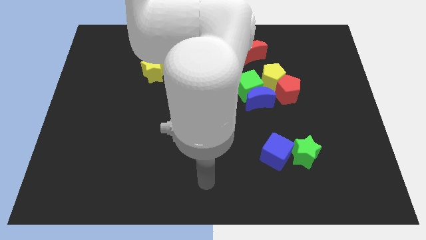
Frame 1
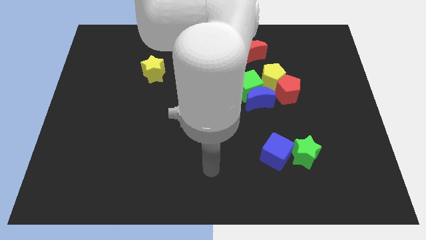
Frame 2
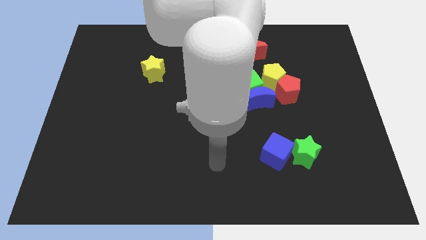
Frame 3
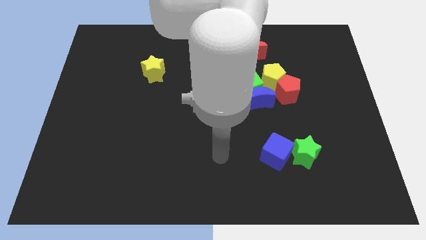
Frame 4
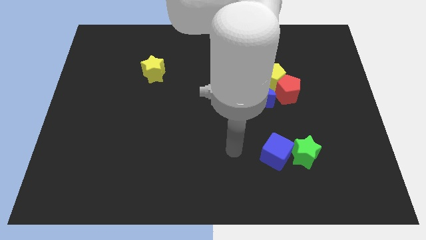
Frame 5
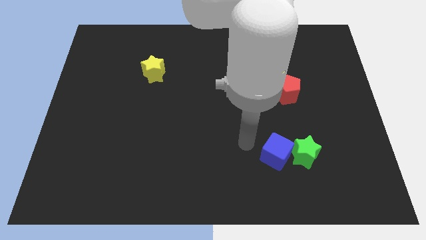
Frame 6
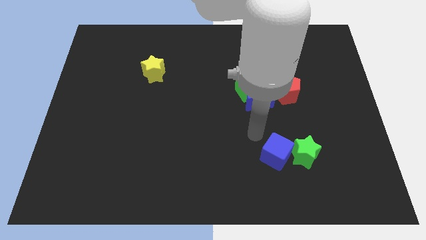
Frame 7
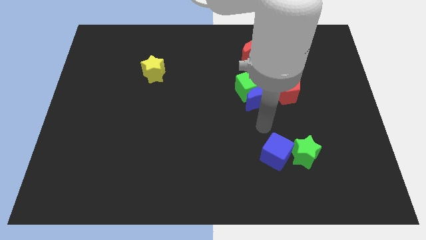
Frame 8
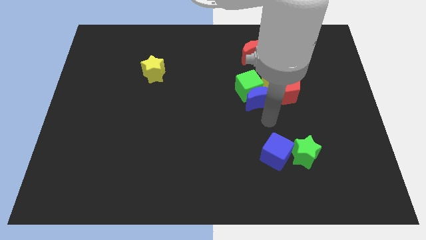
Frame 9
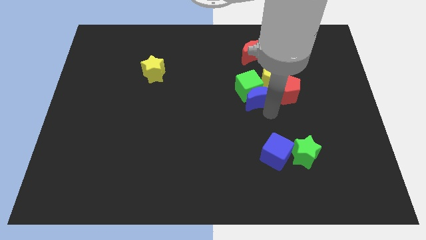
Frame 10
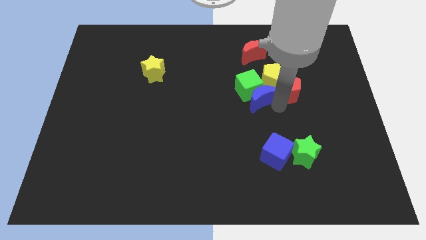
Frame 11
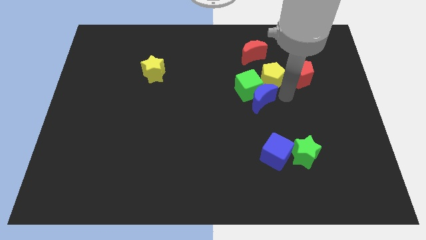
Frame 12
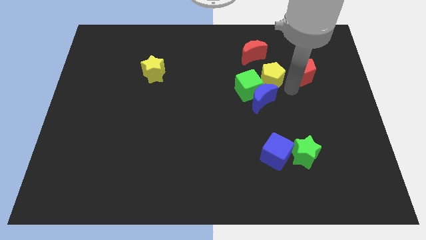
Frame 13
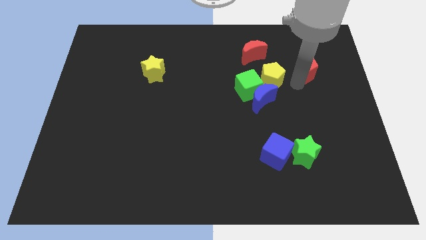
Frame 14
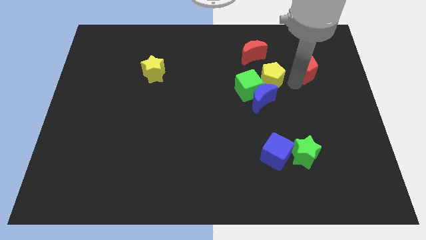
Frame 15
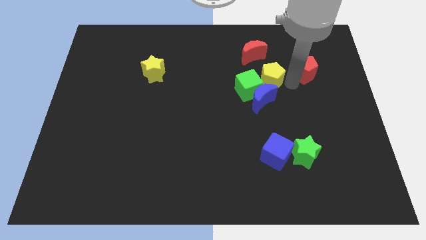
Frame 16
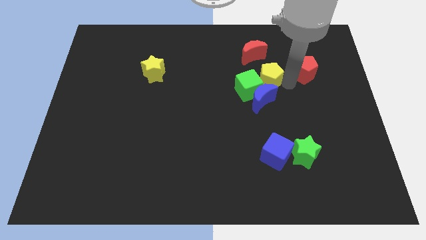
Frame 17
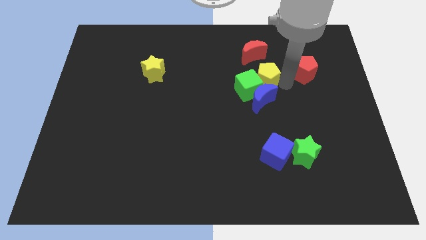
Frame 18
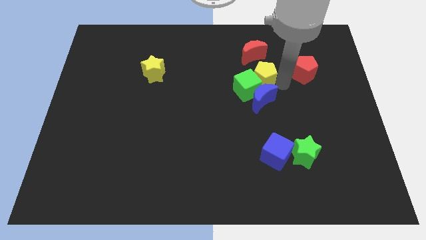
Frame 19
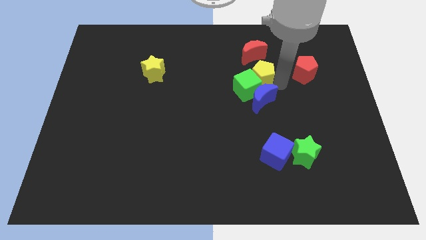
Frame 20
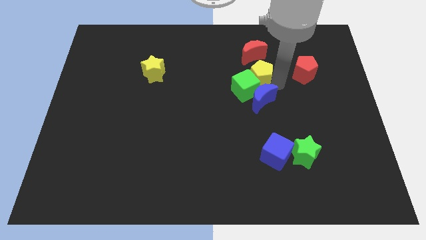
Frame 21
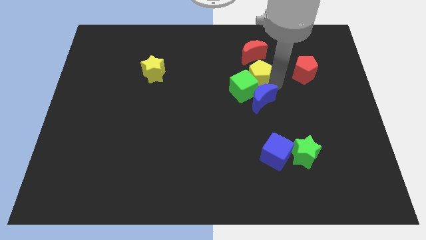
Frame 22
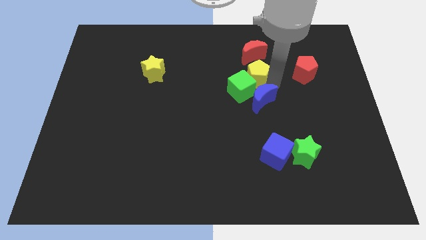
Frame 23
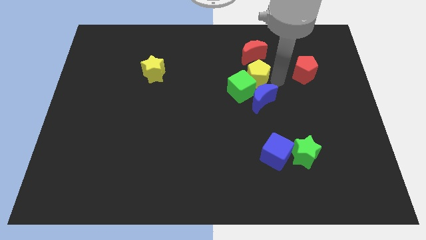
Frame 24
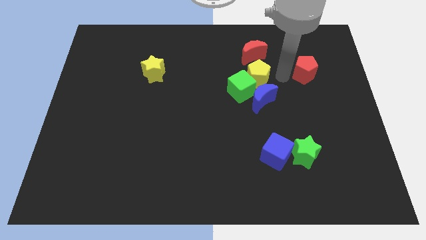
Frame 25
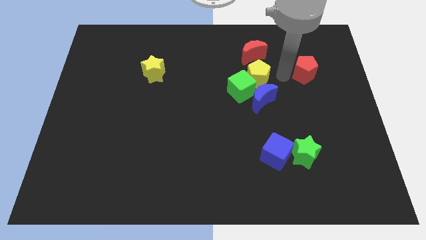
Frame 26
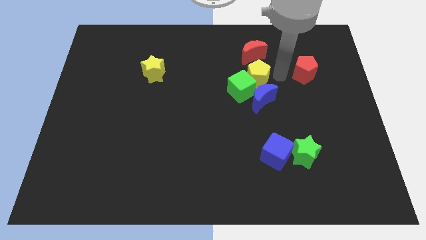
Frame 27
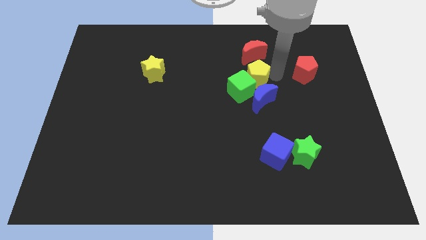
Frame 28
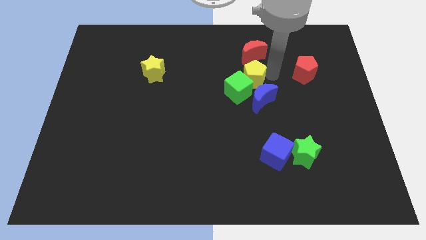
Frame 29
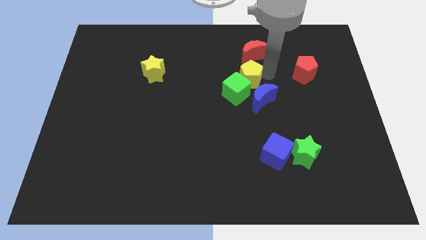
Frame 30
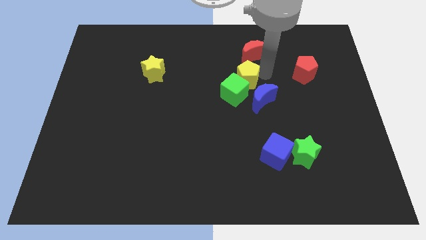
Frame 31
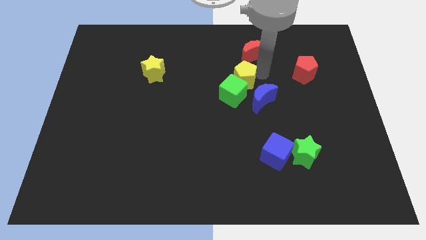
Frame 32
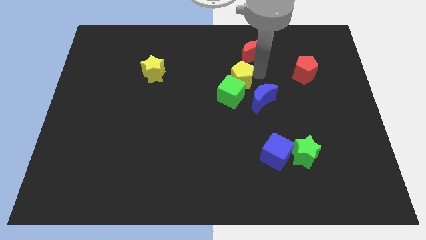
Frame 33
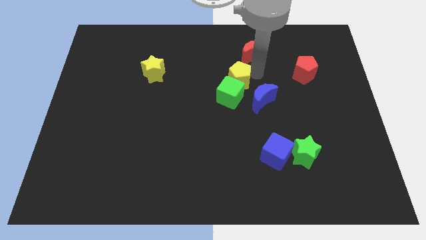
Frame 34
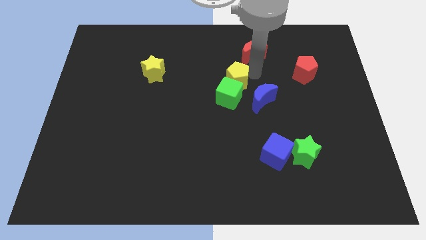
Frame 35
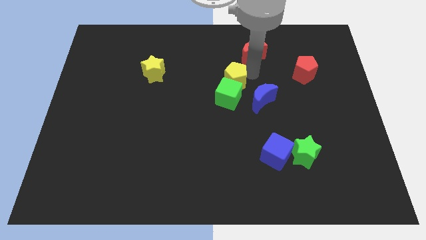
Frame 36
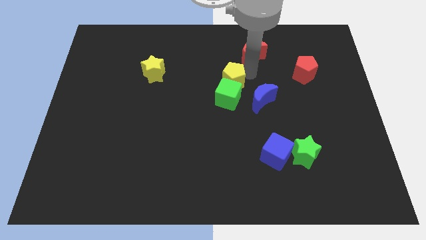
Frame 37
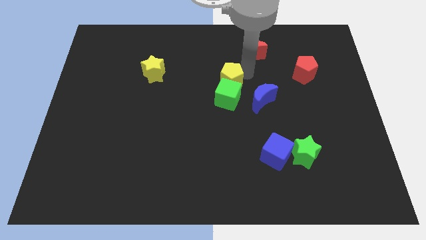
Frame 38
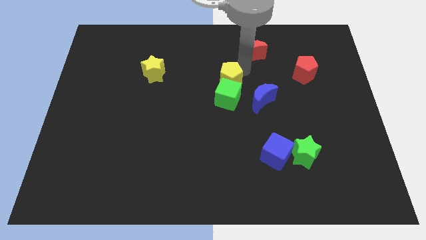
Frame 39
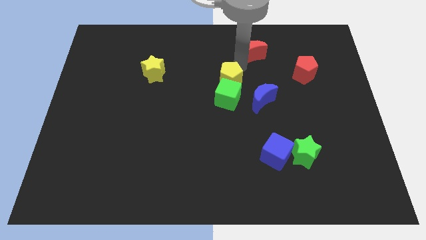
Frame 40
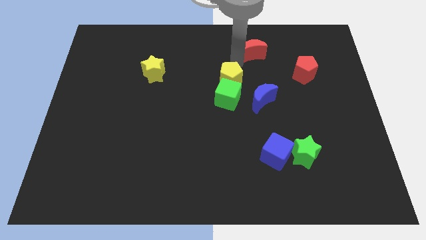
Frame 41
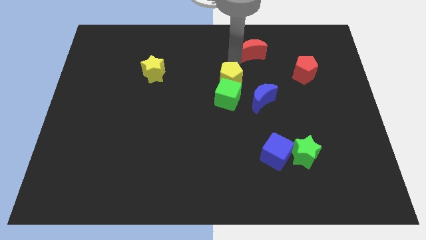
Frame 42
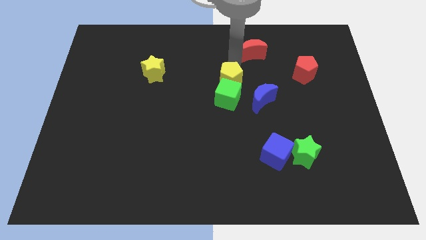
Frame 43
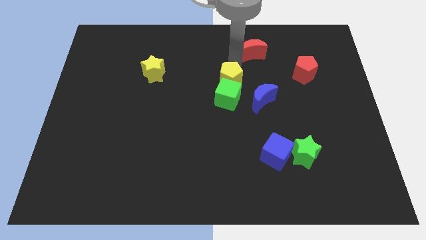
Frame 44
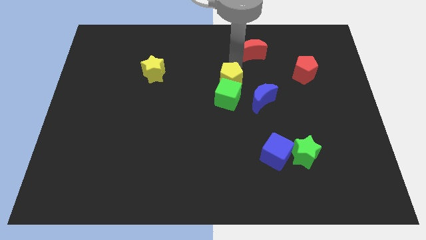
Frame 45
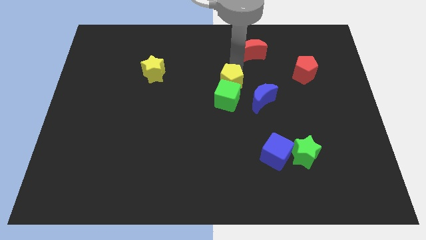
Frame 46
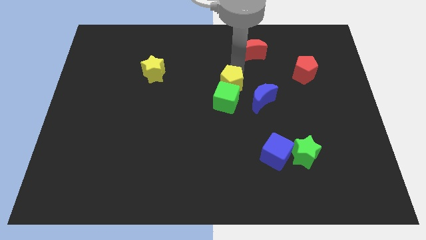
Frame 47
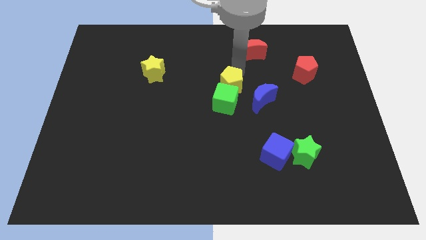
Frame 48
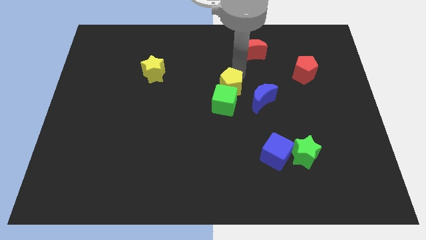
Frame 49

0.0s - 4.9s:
slide the yellow pentagon diagonally down and left a bit

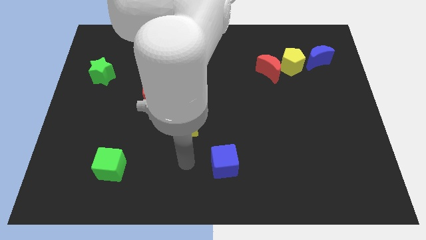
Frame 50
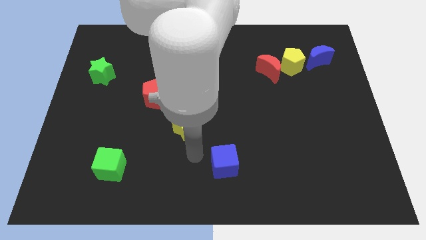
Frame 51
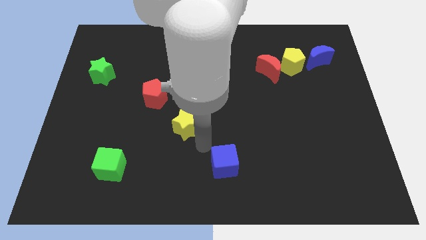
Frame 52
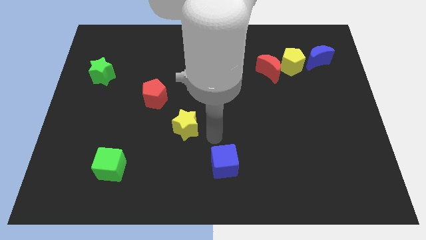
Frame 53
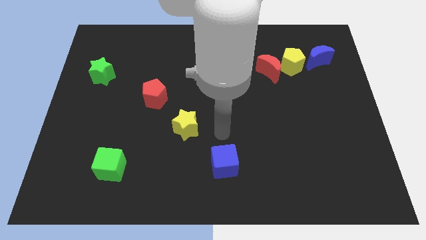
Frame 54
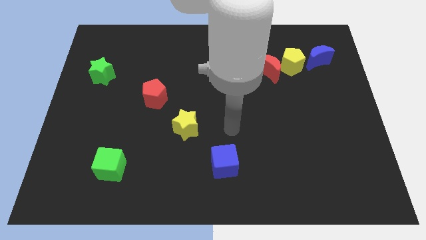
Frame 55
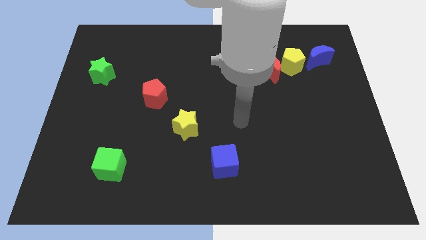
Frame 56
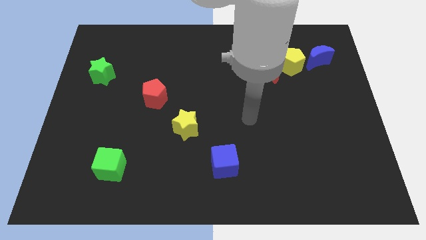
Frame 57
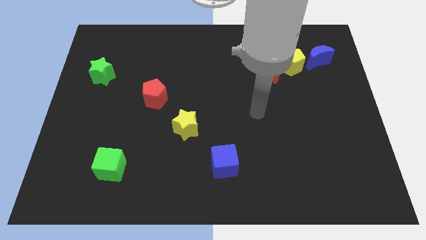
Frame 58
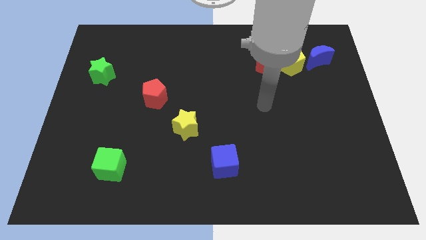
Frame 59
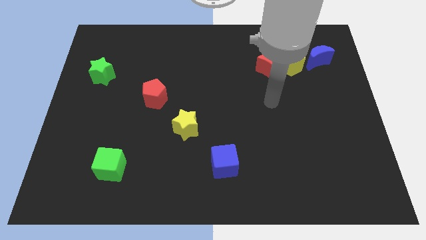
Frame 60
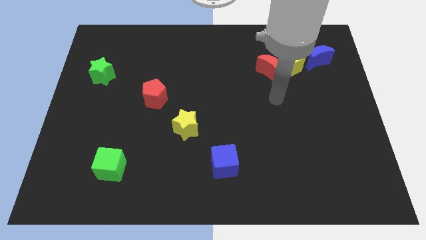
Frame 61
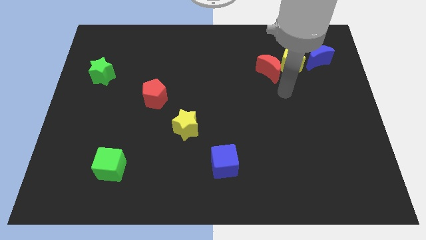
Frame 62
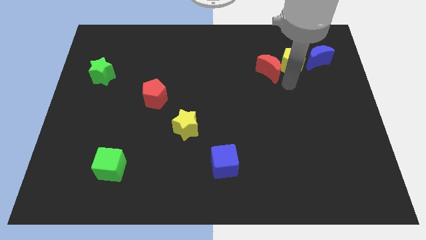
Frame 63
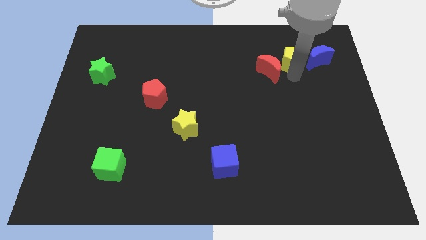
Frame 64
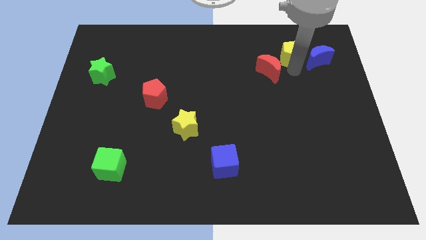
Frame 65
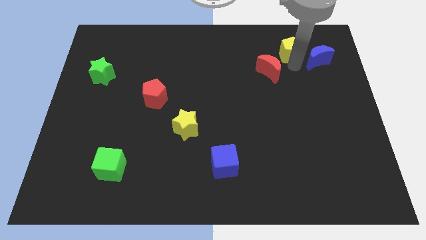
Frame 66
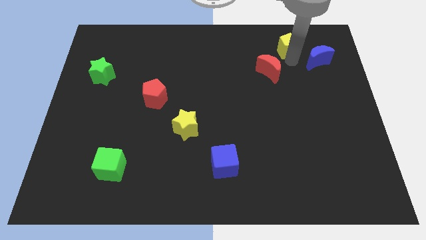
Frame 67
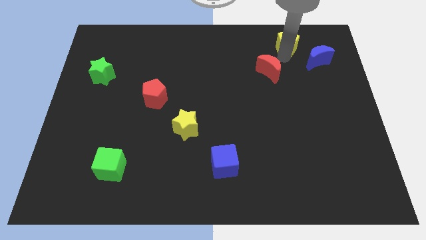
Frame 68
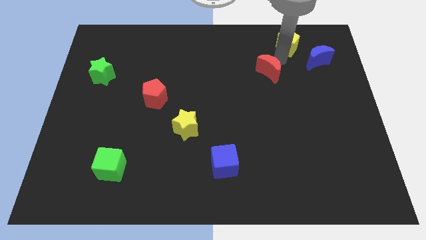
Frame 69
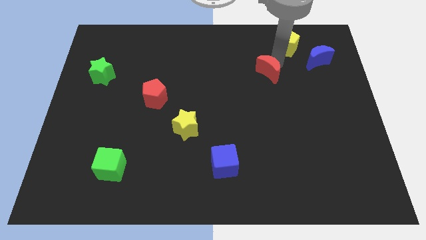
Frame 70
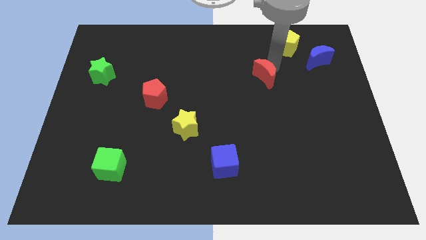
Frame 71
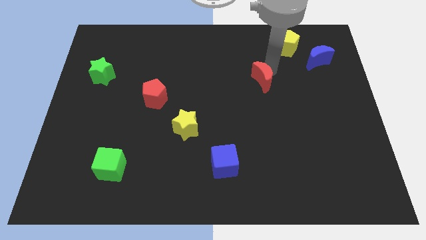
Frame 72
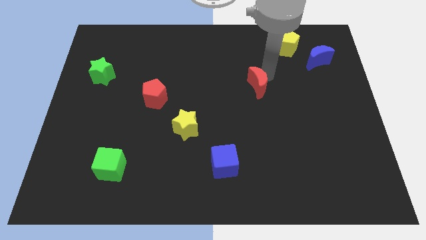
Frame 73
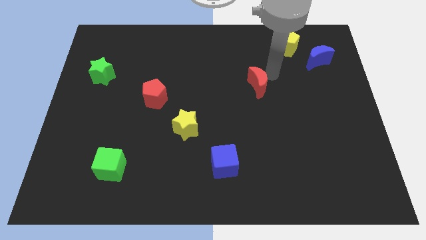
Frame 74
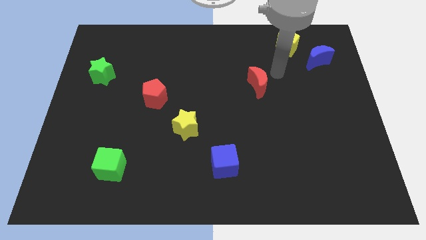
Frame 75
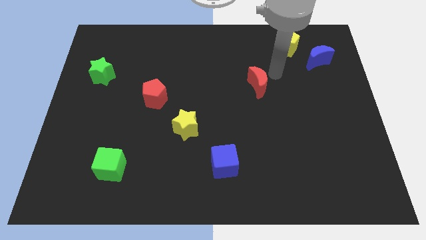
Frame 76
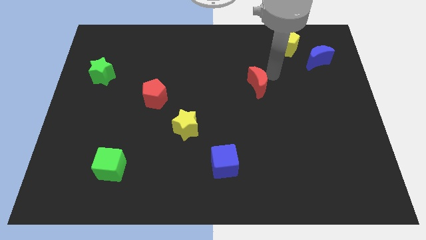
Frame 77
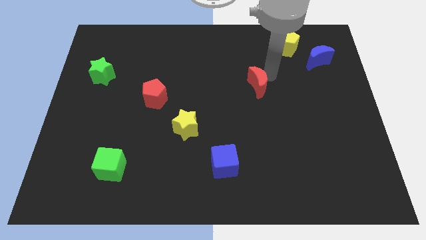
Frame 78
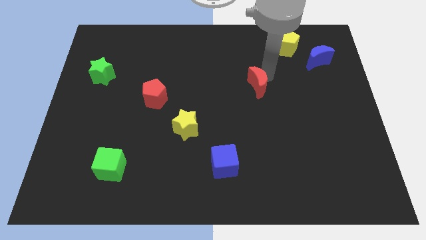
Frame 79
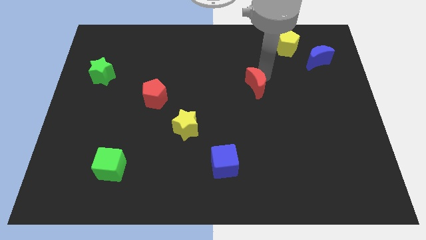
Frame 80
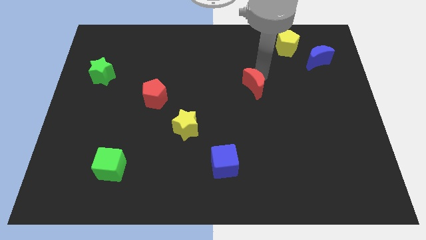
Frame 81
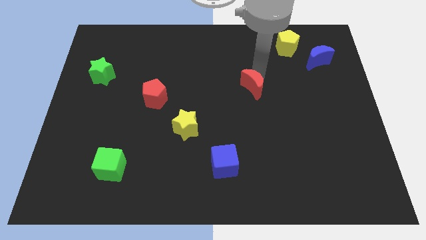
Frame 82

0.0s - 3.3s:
push the red moon a bit downwards and then left
